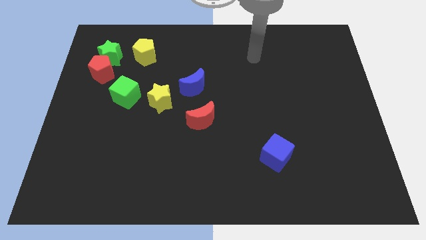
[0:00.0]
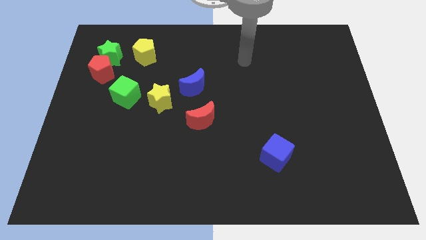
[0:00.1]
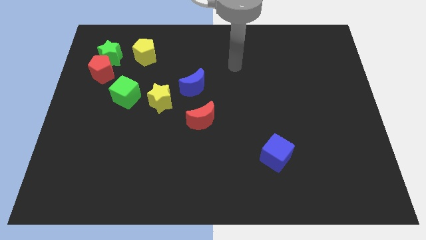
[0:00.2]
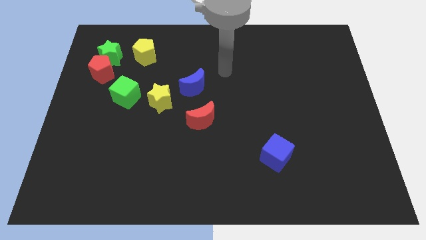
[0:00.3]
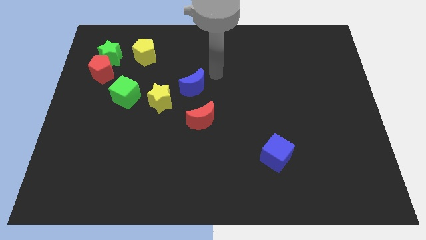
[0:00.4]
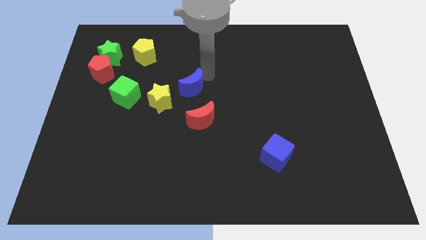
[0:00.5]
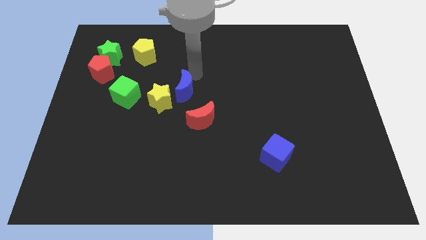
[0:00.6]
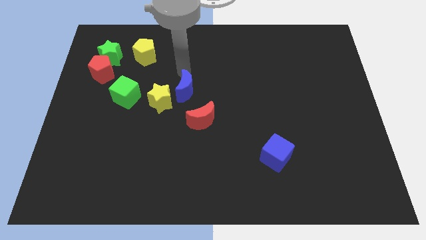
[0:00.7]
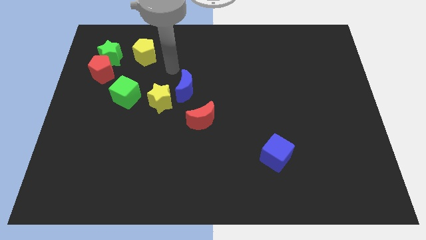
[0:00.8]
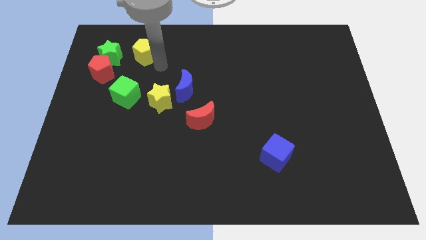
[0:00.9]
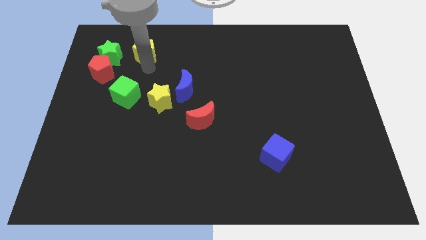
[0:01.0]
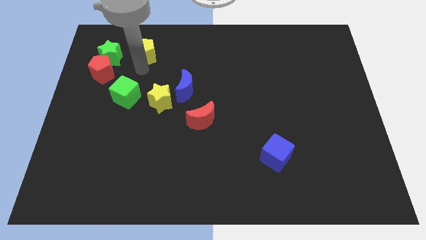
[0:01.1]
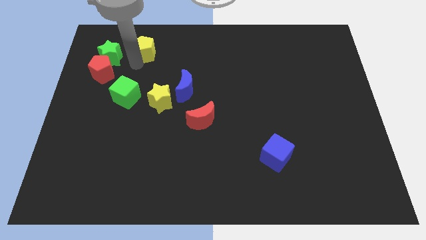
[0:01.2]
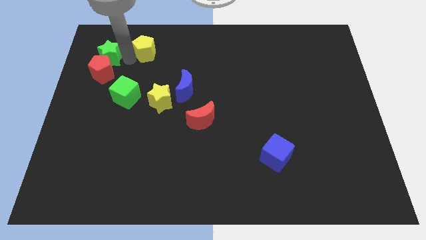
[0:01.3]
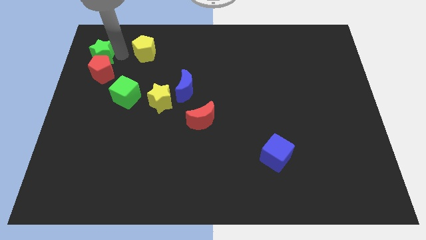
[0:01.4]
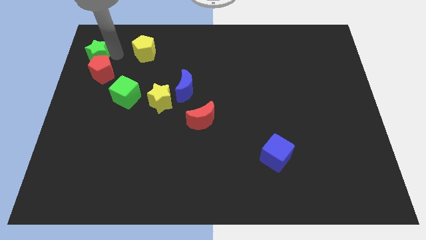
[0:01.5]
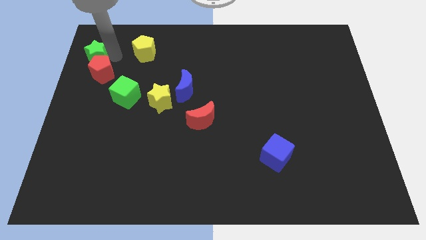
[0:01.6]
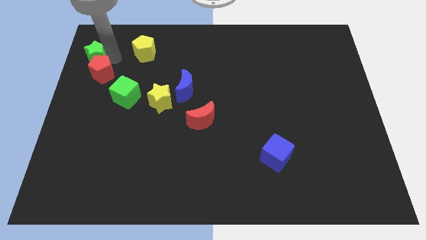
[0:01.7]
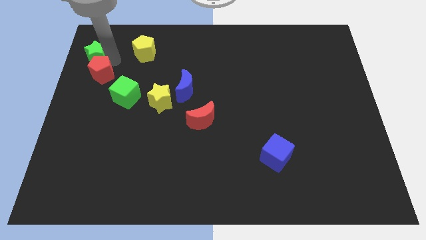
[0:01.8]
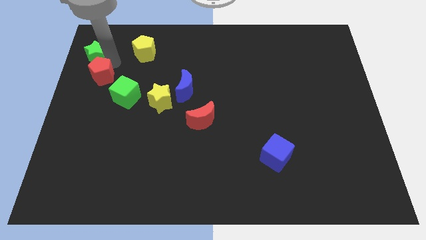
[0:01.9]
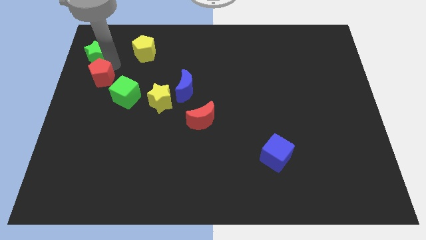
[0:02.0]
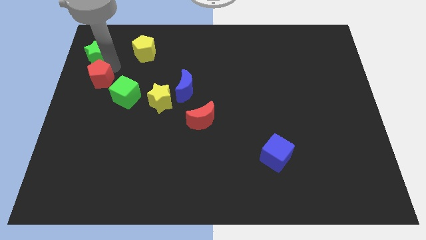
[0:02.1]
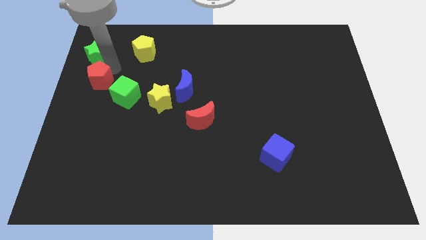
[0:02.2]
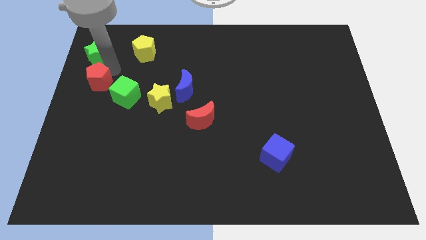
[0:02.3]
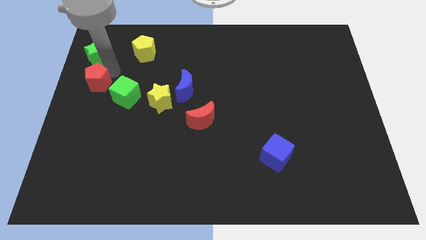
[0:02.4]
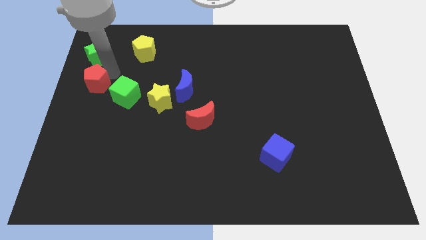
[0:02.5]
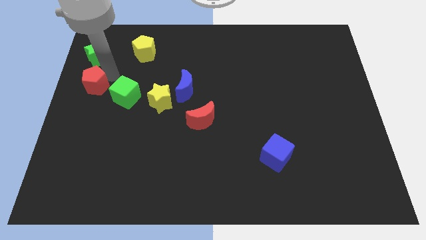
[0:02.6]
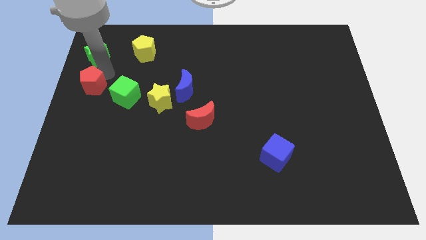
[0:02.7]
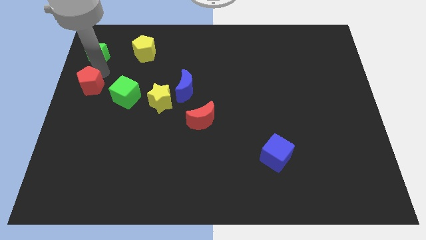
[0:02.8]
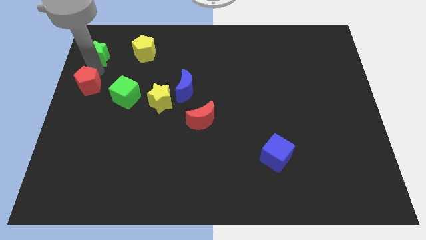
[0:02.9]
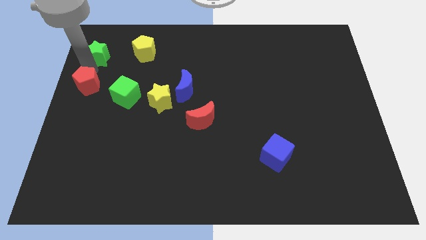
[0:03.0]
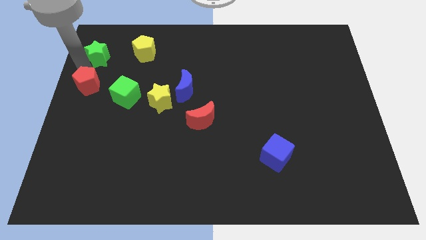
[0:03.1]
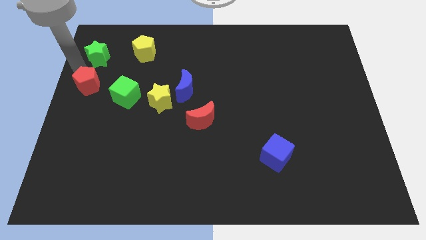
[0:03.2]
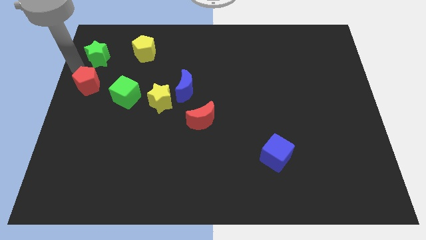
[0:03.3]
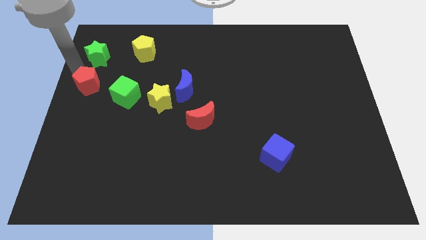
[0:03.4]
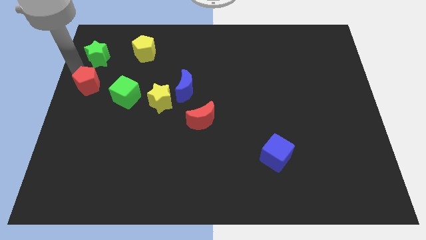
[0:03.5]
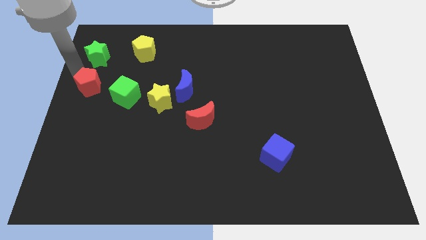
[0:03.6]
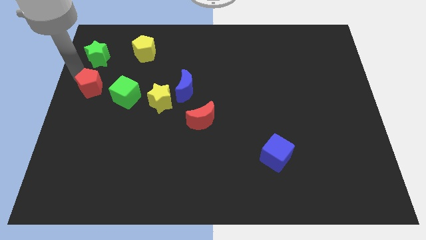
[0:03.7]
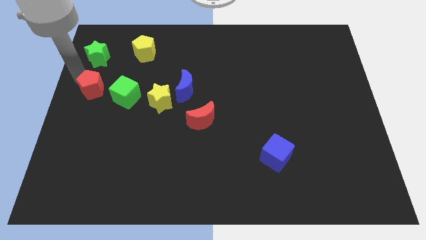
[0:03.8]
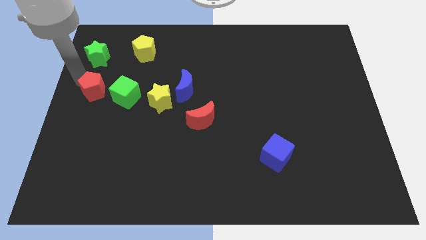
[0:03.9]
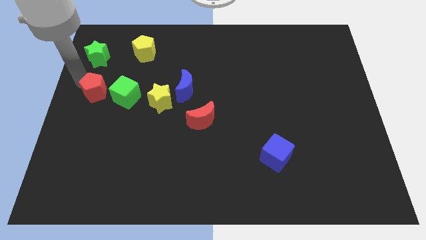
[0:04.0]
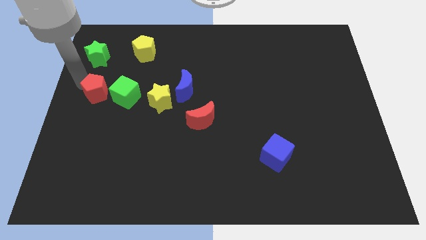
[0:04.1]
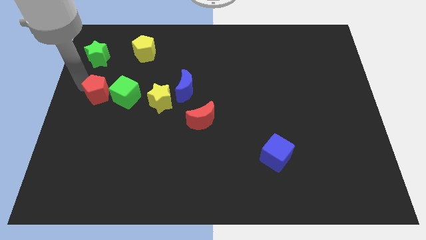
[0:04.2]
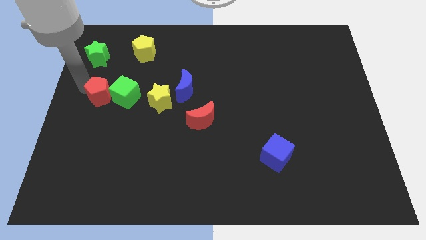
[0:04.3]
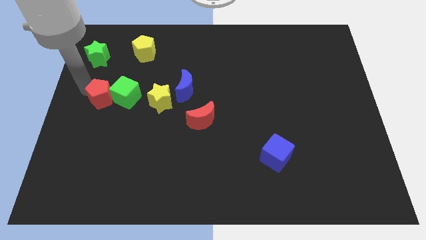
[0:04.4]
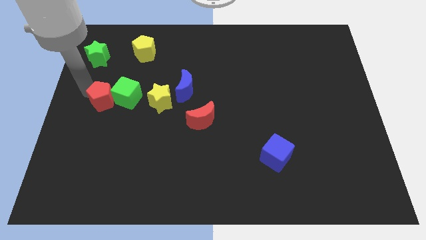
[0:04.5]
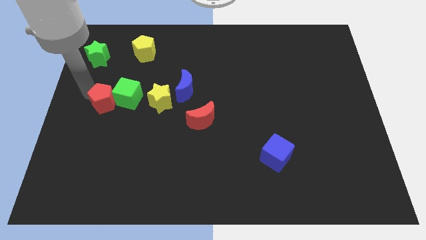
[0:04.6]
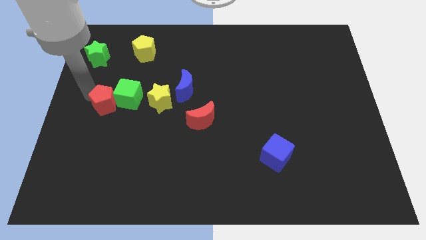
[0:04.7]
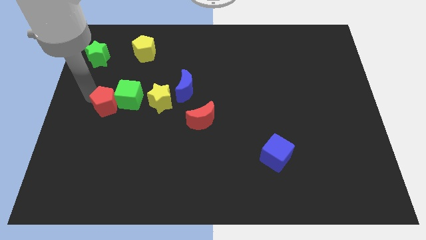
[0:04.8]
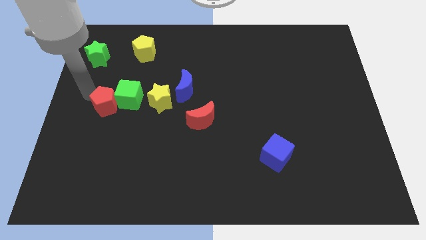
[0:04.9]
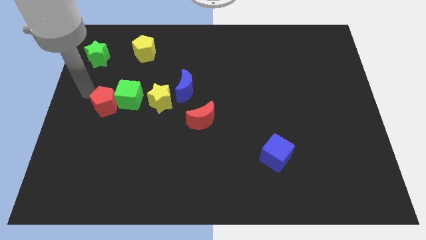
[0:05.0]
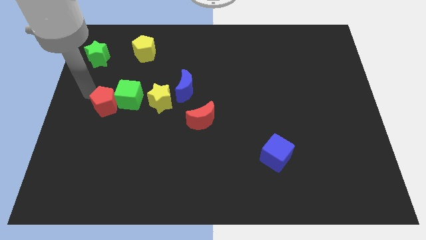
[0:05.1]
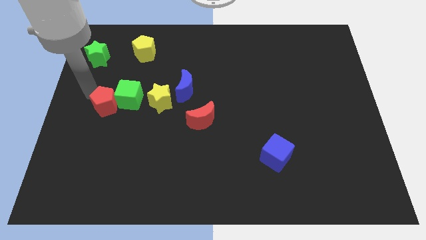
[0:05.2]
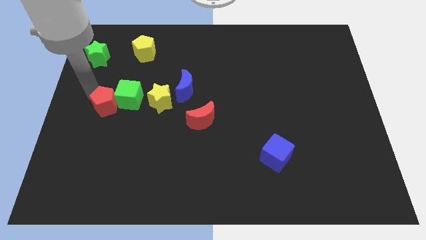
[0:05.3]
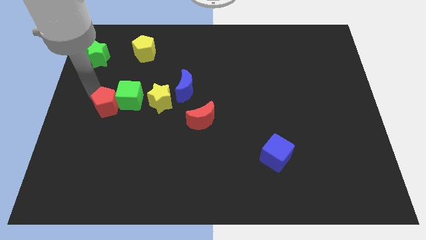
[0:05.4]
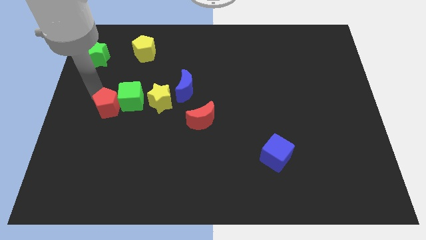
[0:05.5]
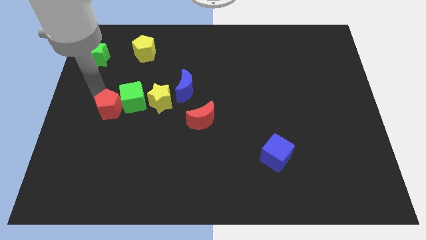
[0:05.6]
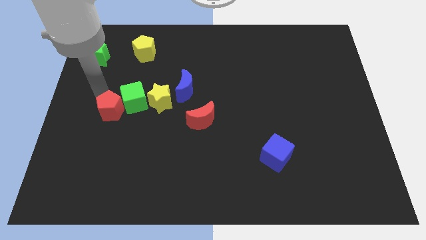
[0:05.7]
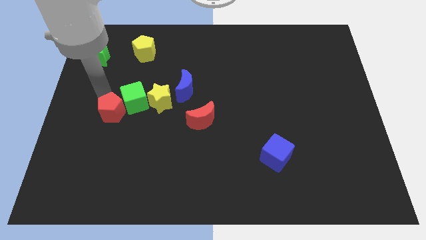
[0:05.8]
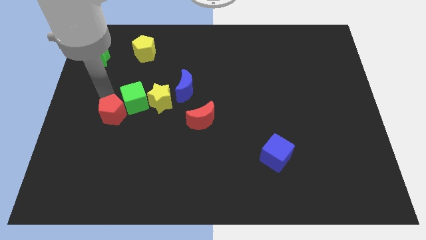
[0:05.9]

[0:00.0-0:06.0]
move the red pentagon to the bottom left of the yellow star

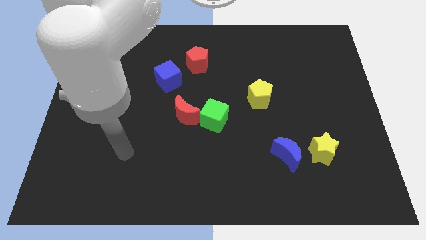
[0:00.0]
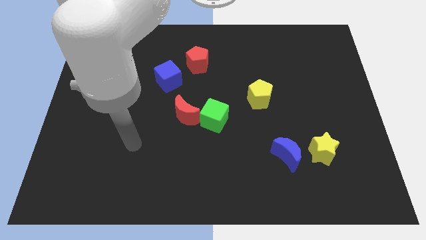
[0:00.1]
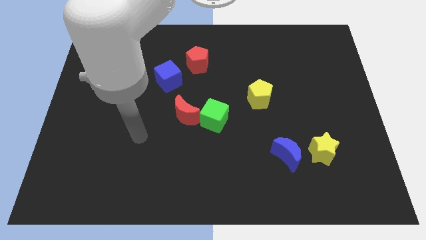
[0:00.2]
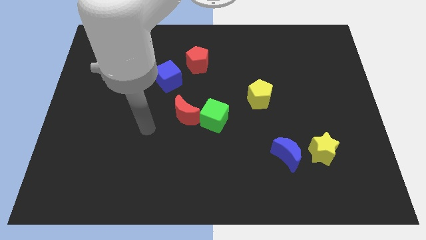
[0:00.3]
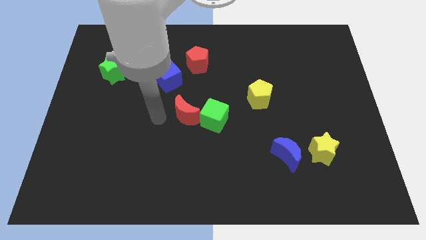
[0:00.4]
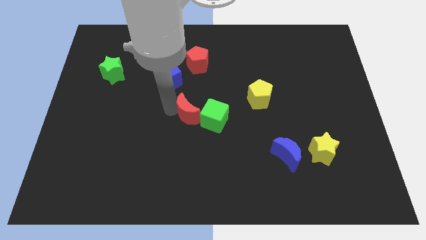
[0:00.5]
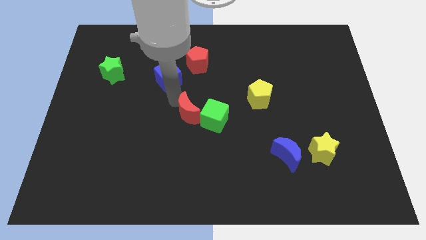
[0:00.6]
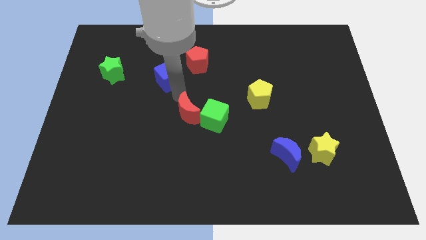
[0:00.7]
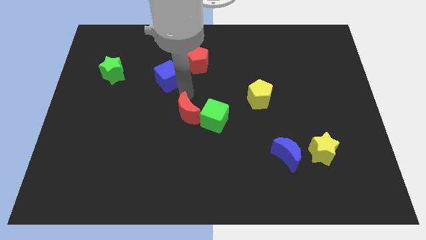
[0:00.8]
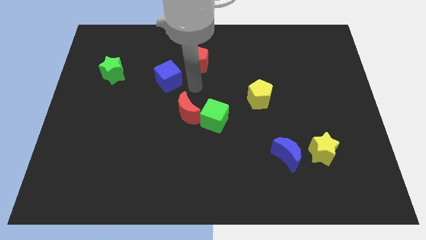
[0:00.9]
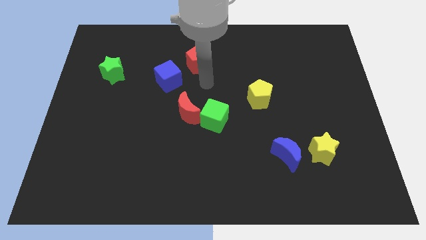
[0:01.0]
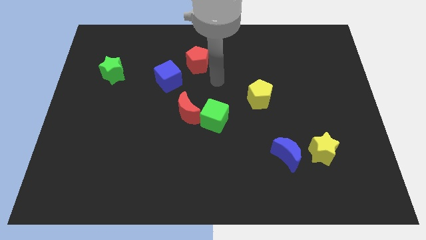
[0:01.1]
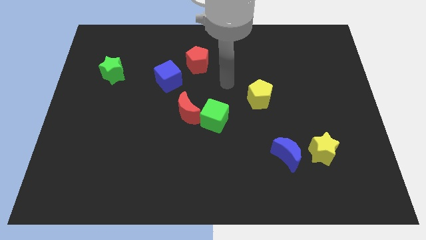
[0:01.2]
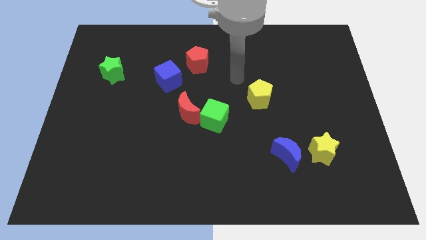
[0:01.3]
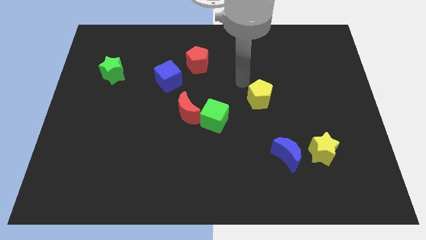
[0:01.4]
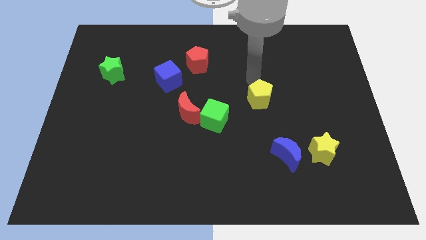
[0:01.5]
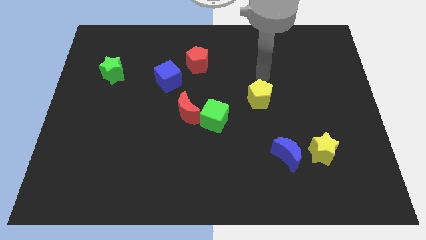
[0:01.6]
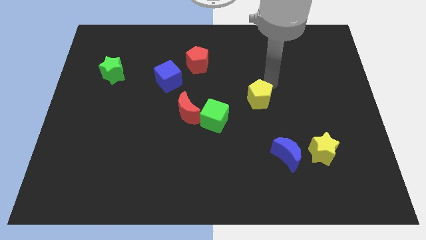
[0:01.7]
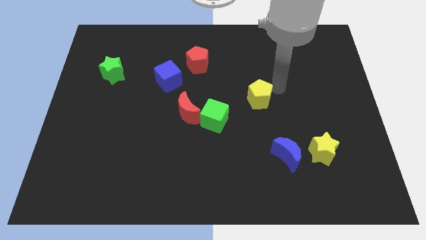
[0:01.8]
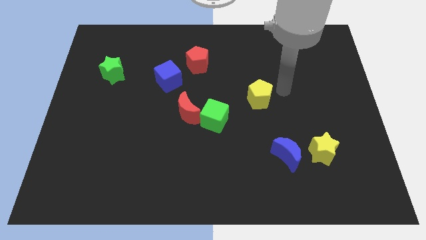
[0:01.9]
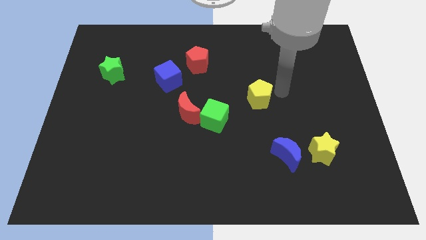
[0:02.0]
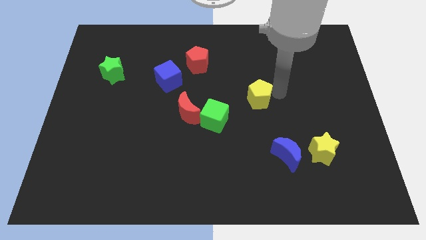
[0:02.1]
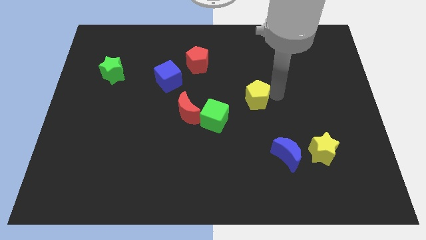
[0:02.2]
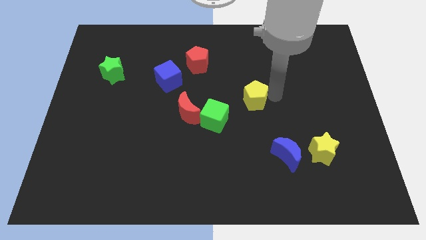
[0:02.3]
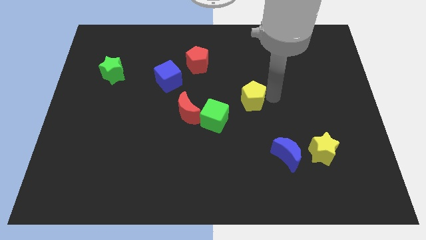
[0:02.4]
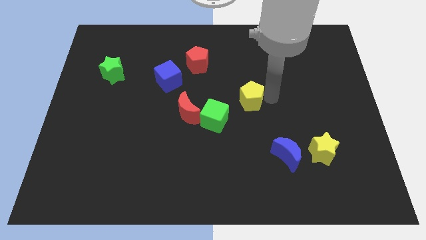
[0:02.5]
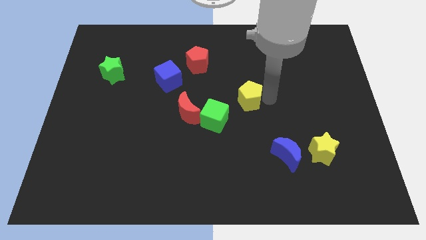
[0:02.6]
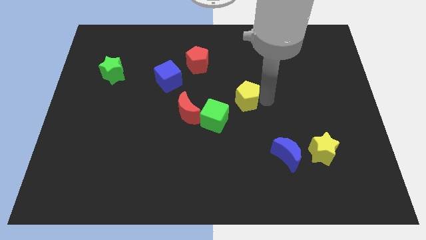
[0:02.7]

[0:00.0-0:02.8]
put the yellow pentagon to the right of the red moon
